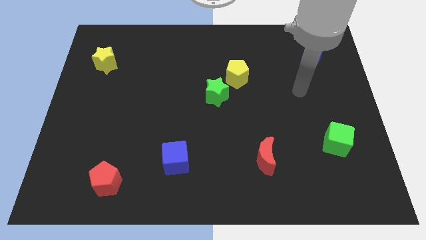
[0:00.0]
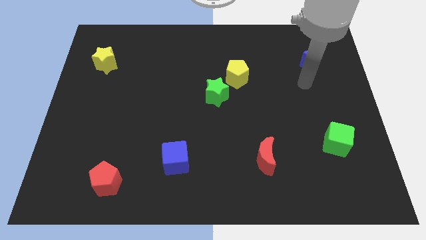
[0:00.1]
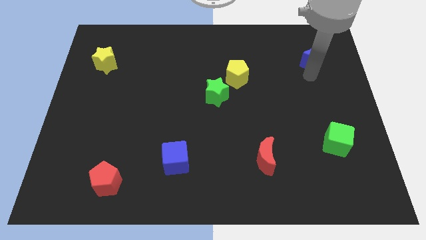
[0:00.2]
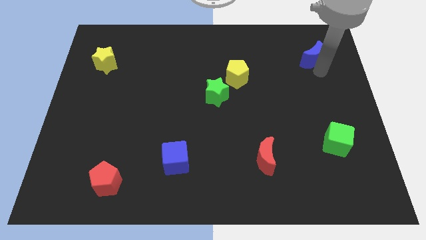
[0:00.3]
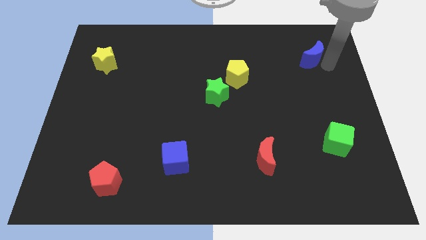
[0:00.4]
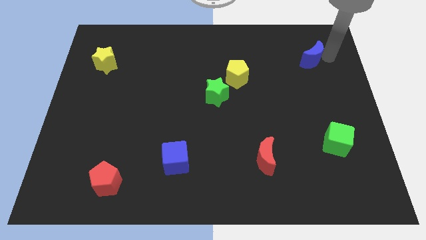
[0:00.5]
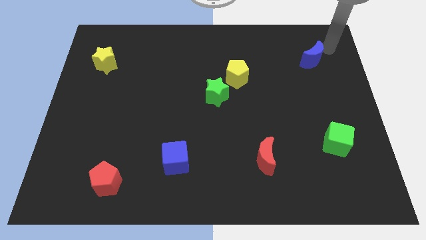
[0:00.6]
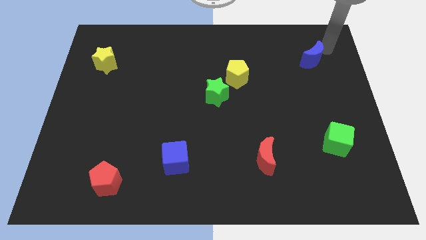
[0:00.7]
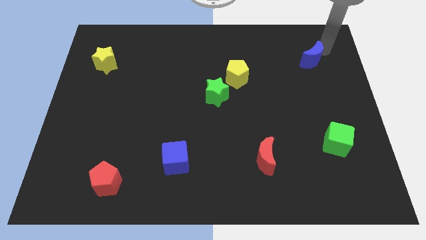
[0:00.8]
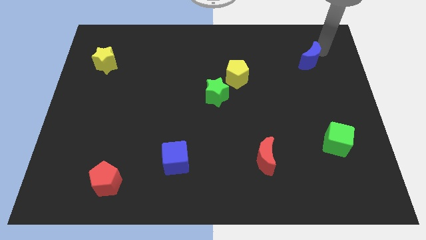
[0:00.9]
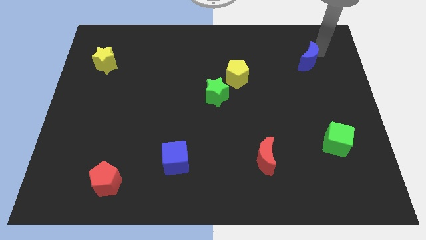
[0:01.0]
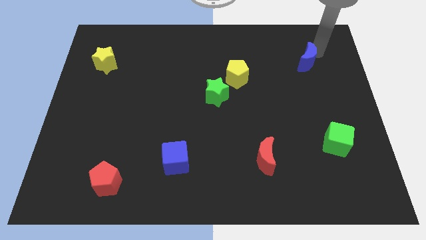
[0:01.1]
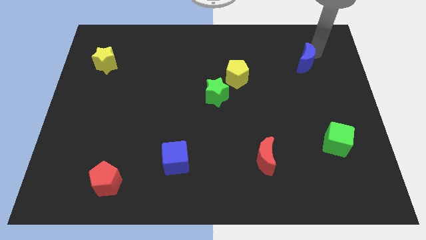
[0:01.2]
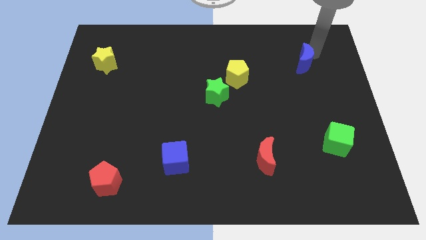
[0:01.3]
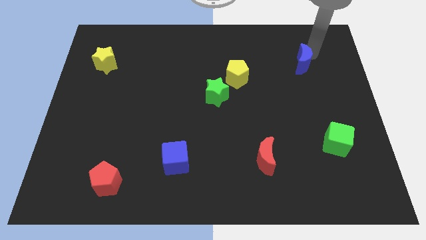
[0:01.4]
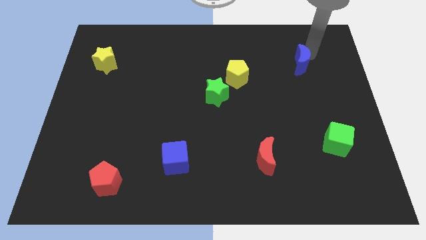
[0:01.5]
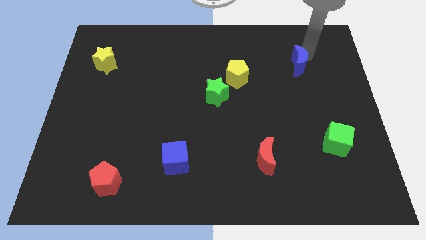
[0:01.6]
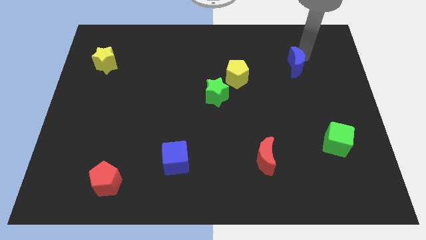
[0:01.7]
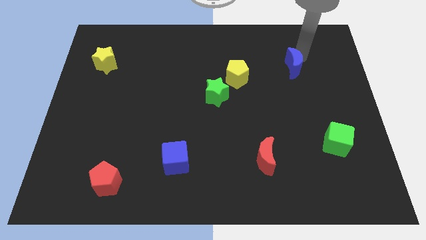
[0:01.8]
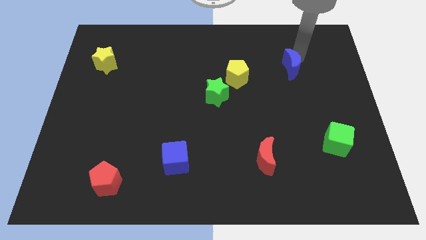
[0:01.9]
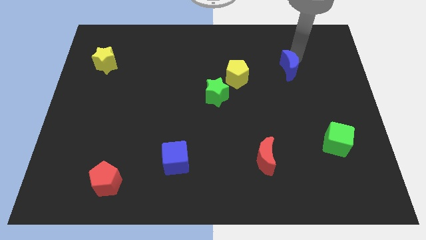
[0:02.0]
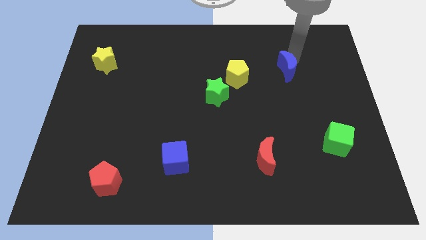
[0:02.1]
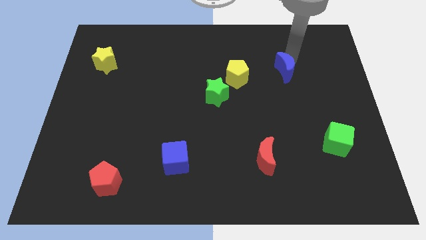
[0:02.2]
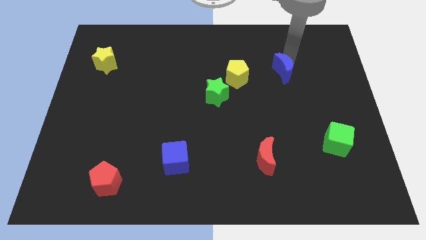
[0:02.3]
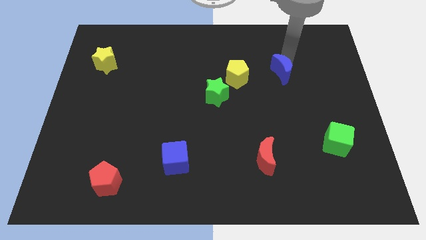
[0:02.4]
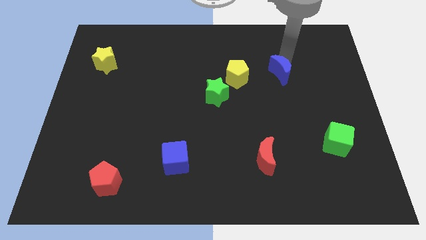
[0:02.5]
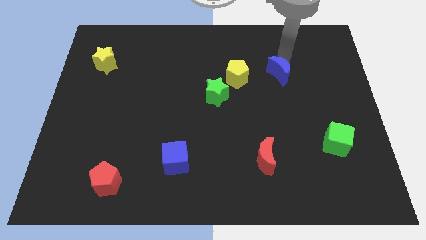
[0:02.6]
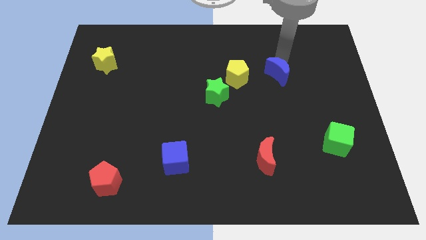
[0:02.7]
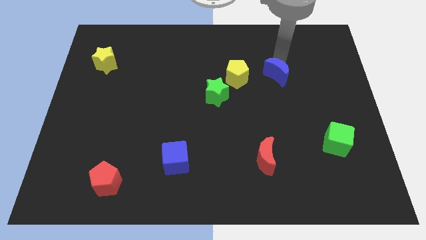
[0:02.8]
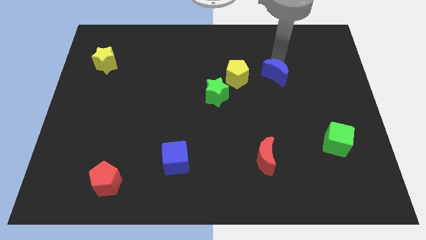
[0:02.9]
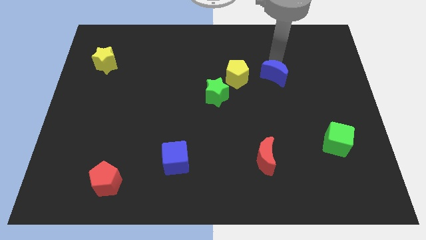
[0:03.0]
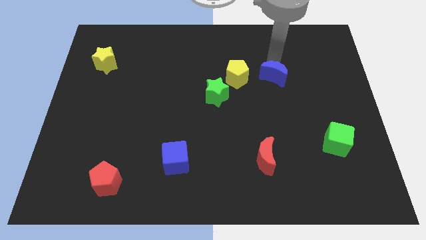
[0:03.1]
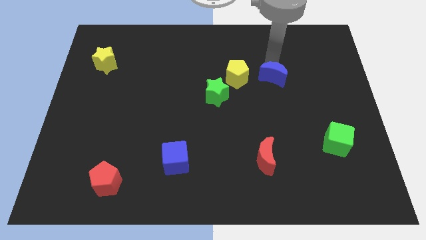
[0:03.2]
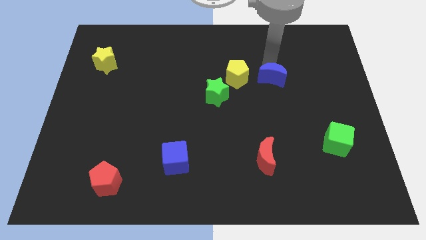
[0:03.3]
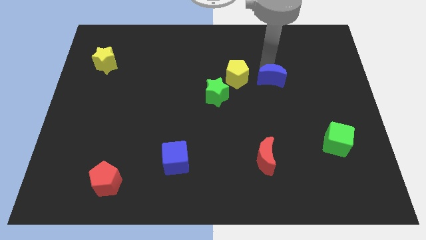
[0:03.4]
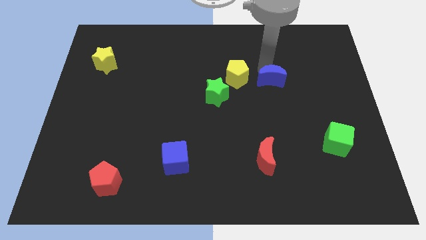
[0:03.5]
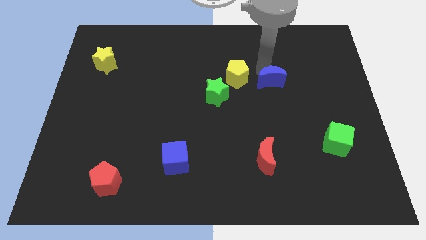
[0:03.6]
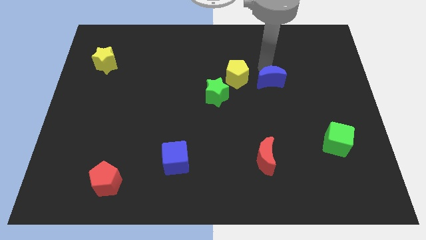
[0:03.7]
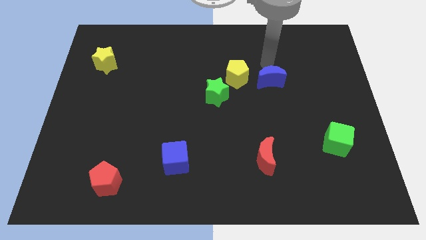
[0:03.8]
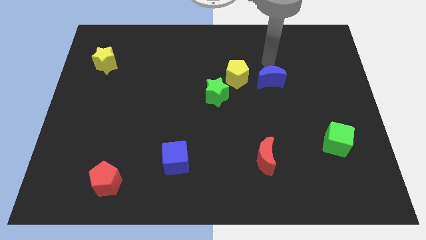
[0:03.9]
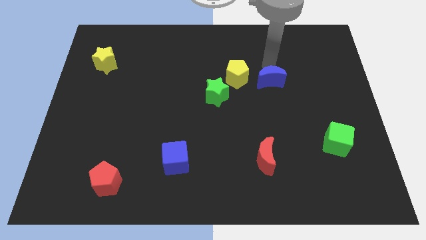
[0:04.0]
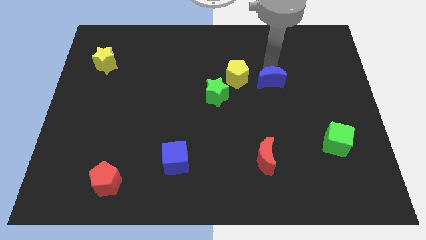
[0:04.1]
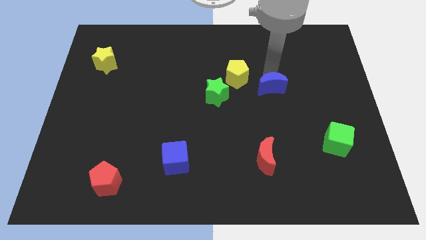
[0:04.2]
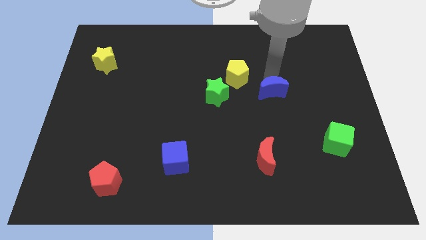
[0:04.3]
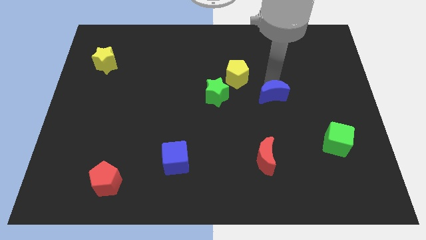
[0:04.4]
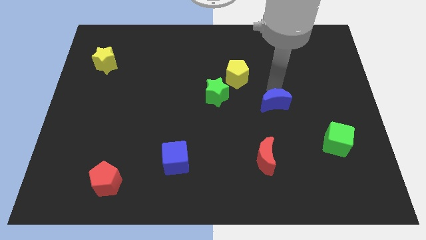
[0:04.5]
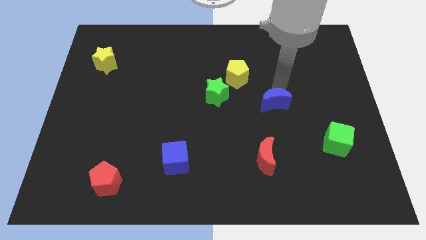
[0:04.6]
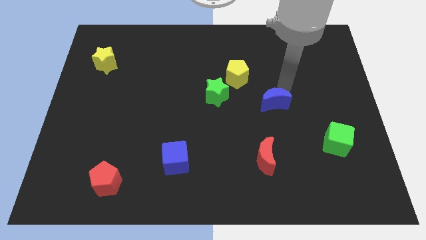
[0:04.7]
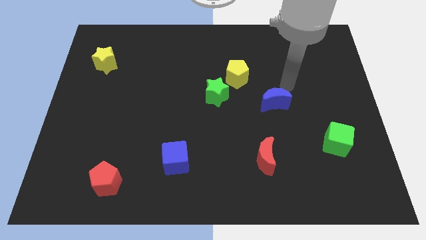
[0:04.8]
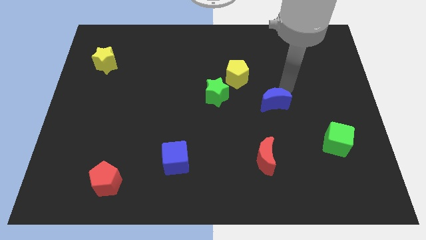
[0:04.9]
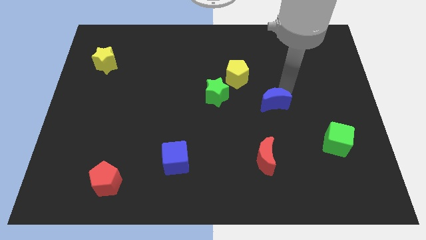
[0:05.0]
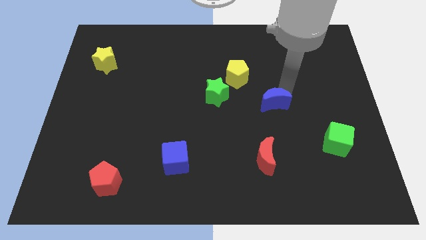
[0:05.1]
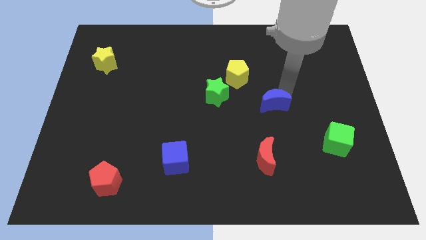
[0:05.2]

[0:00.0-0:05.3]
move the blue moon above the red moon

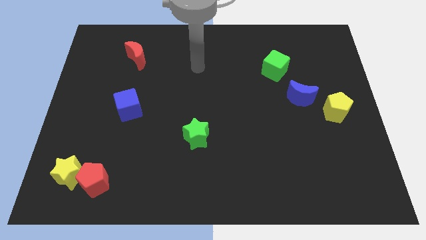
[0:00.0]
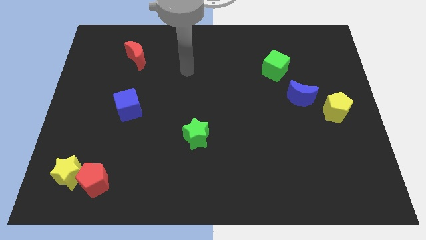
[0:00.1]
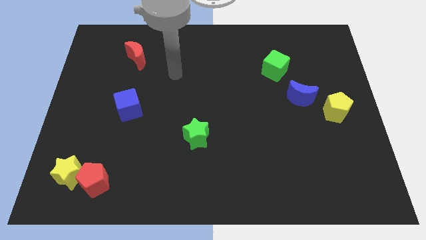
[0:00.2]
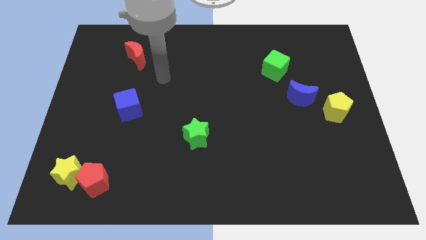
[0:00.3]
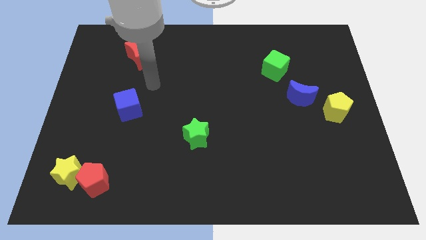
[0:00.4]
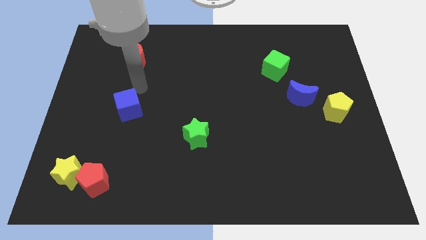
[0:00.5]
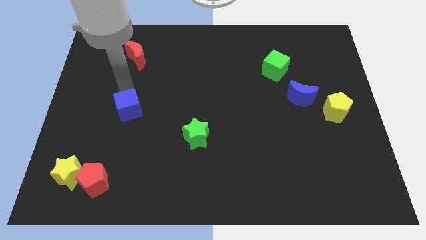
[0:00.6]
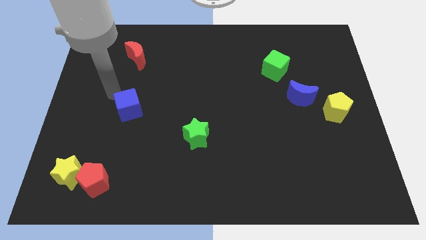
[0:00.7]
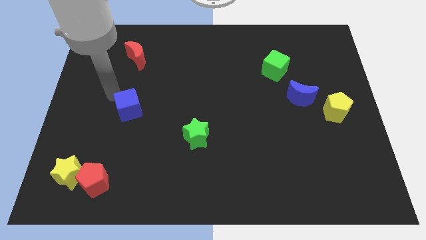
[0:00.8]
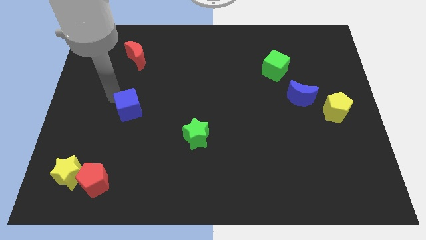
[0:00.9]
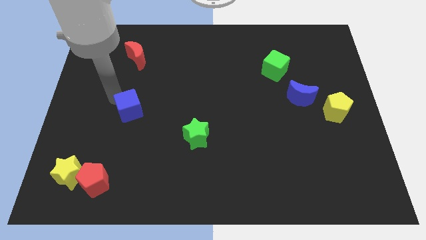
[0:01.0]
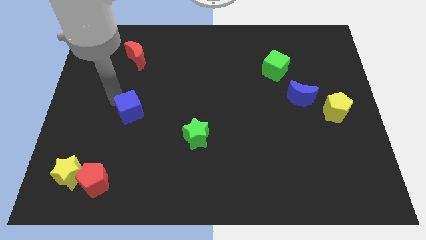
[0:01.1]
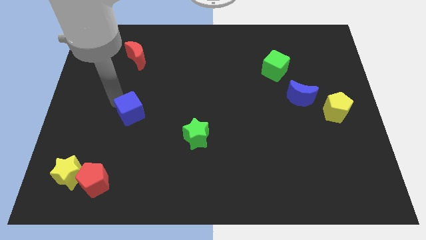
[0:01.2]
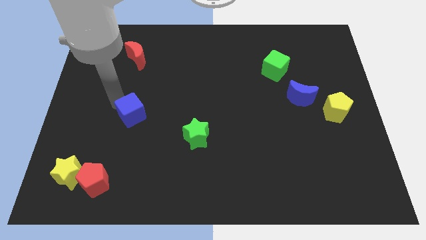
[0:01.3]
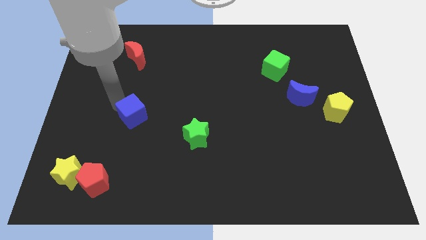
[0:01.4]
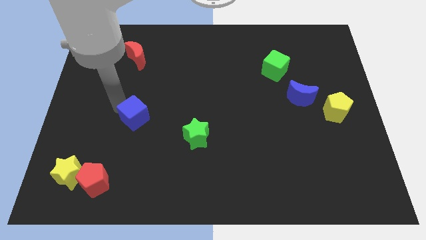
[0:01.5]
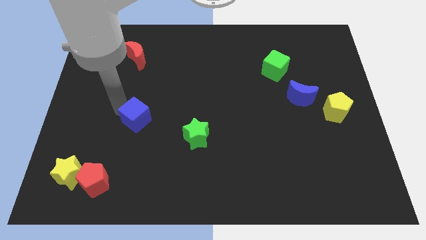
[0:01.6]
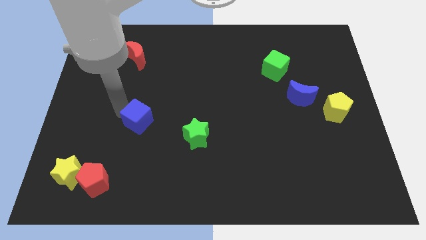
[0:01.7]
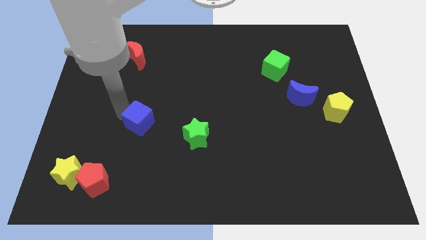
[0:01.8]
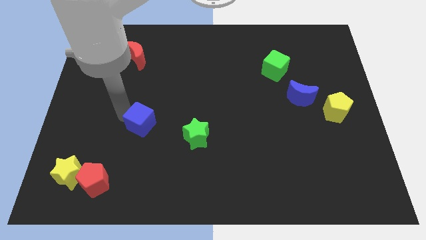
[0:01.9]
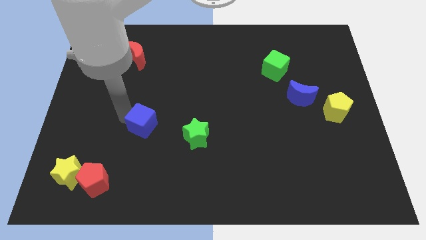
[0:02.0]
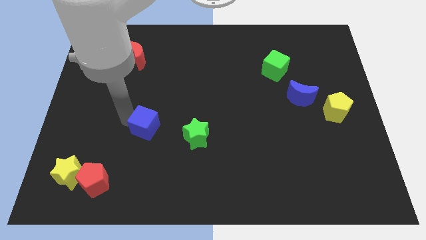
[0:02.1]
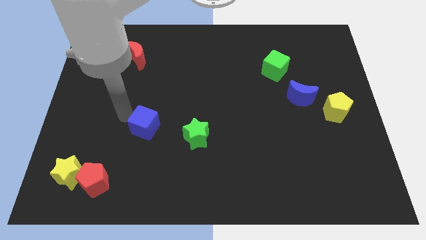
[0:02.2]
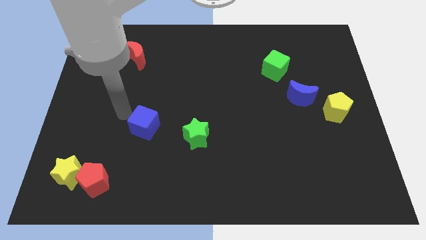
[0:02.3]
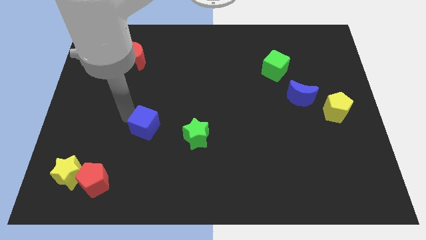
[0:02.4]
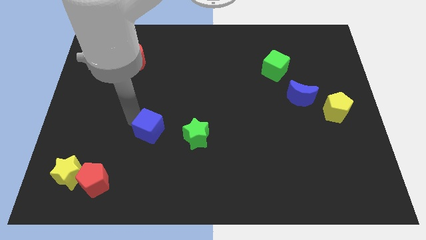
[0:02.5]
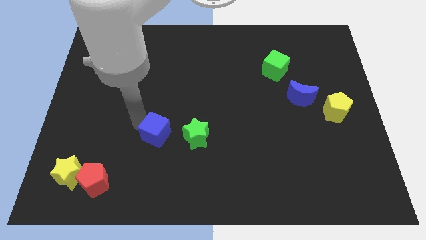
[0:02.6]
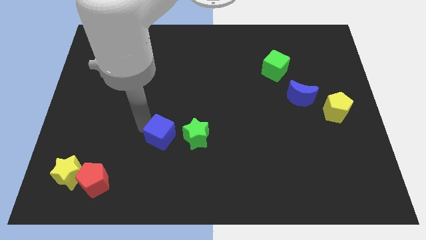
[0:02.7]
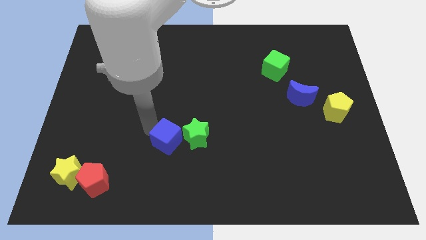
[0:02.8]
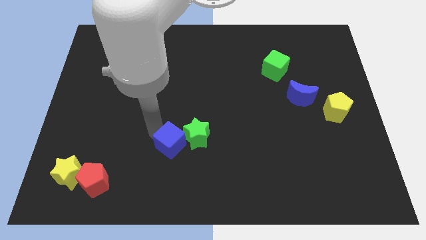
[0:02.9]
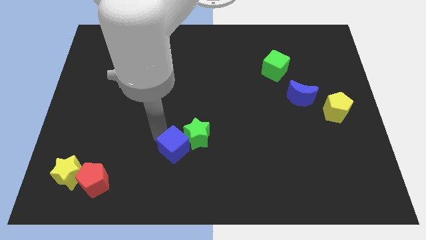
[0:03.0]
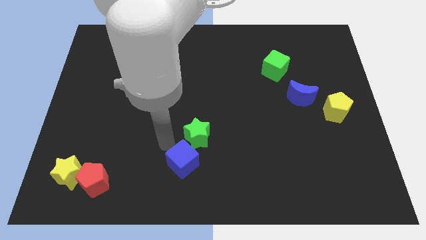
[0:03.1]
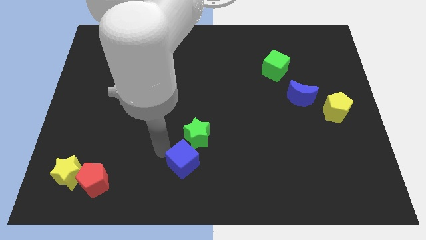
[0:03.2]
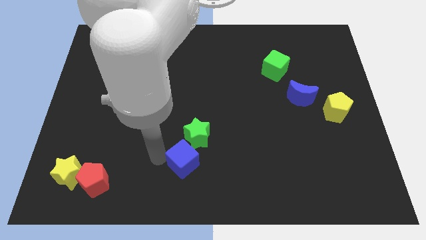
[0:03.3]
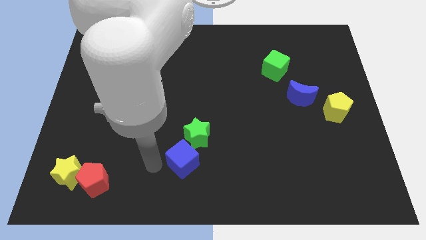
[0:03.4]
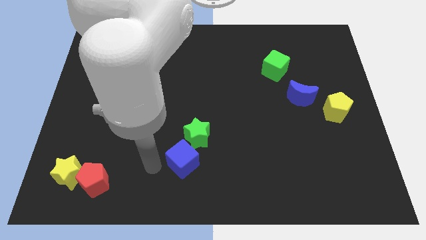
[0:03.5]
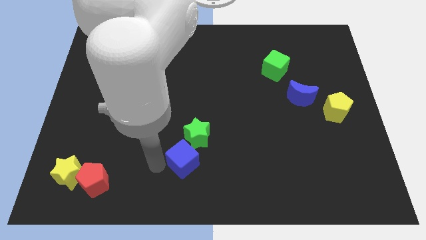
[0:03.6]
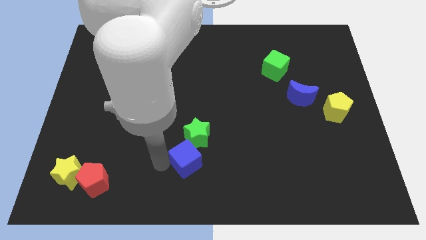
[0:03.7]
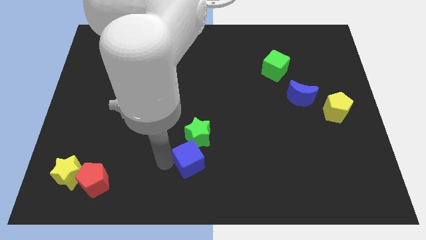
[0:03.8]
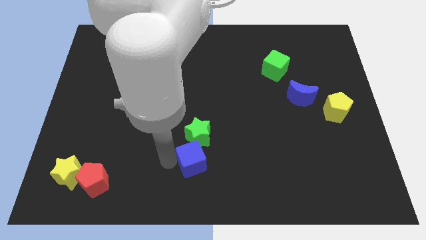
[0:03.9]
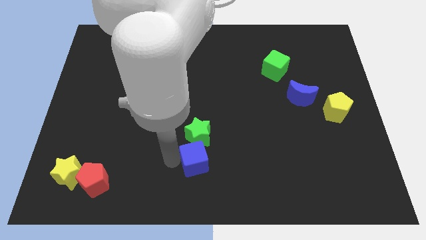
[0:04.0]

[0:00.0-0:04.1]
push the blue cube to the bottom right side of the green star
